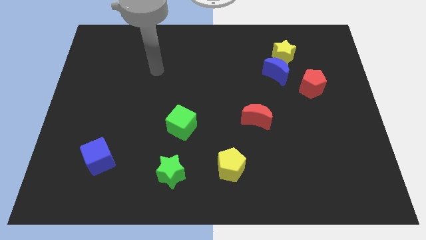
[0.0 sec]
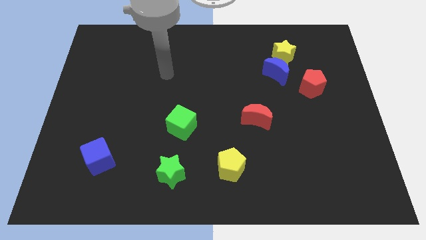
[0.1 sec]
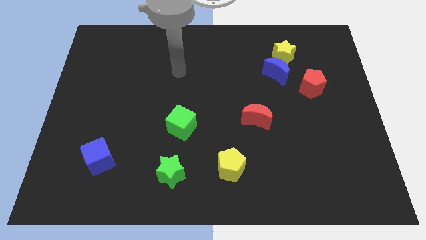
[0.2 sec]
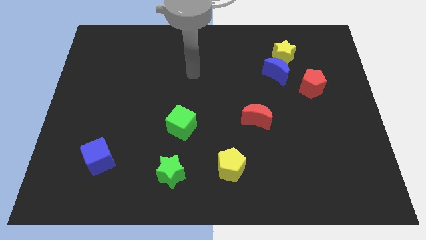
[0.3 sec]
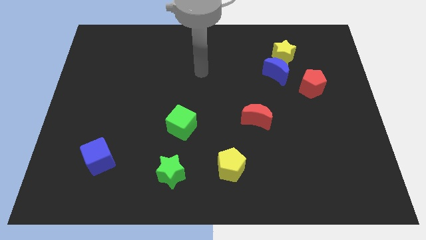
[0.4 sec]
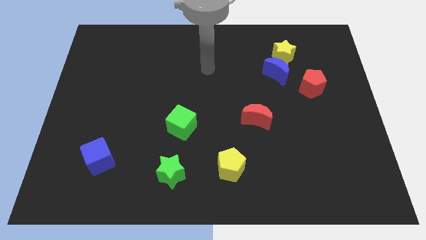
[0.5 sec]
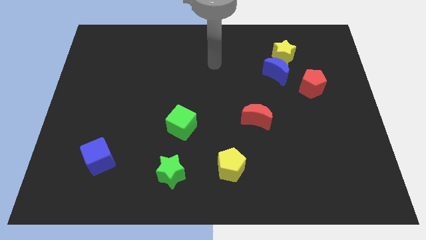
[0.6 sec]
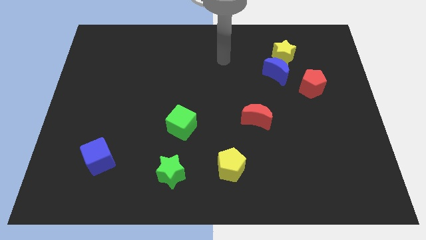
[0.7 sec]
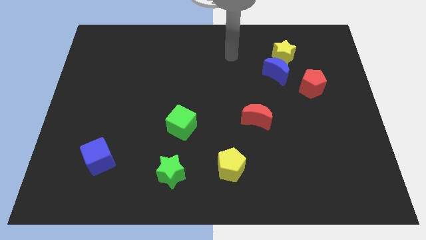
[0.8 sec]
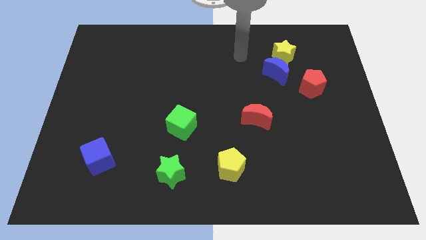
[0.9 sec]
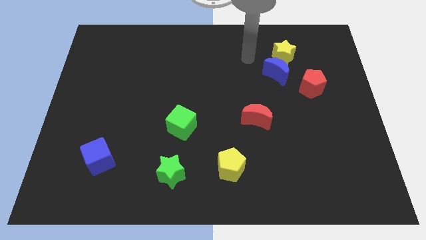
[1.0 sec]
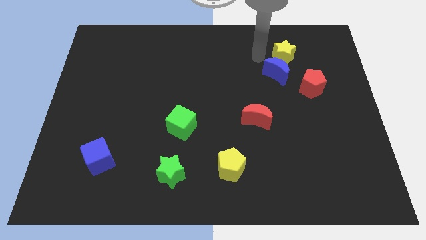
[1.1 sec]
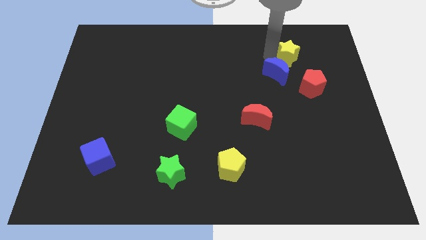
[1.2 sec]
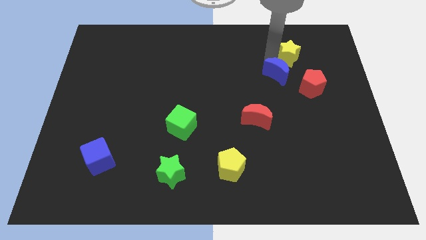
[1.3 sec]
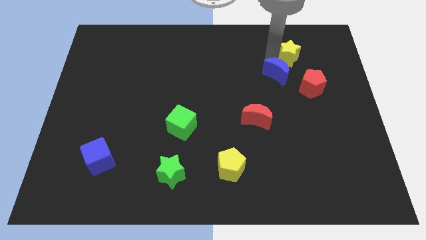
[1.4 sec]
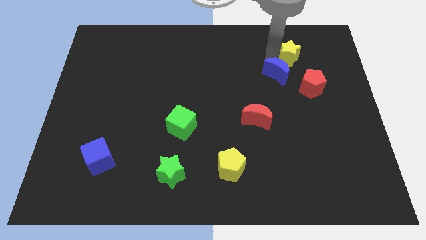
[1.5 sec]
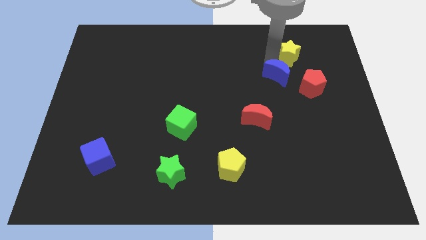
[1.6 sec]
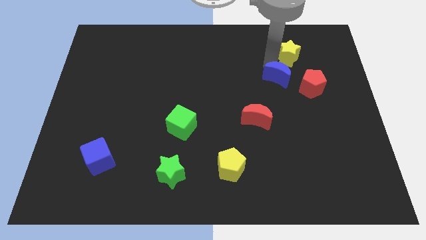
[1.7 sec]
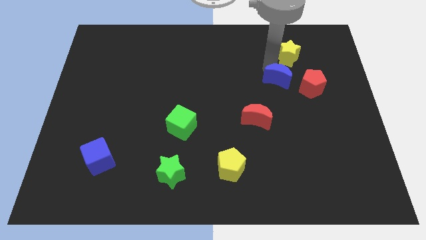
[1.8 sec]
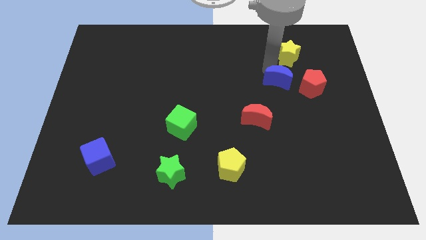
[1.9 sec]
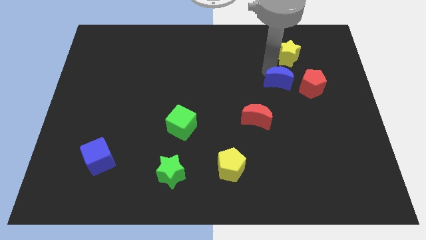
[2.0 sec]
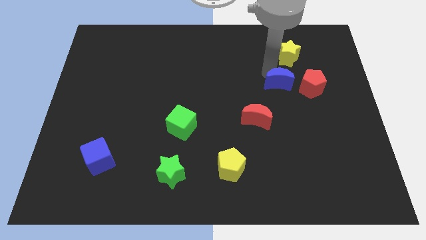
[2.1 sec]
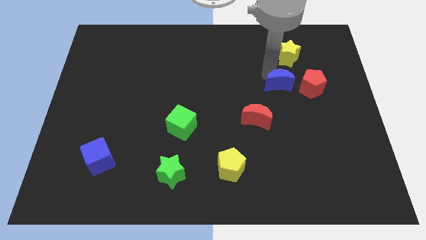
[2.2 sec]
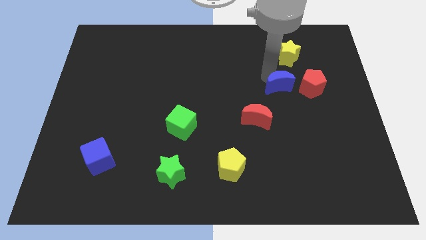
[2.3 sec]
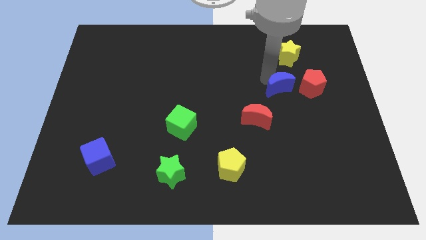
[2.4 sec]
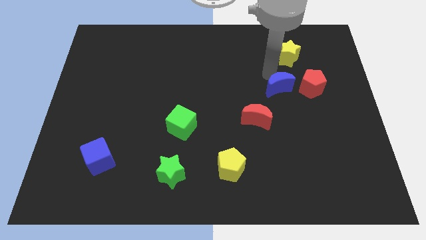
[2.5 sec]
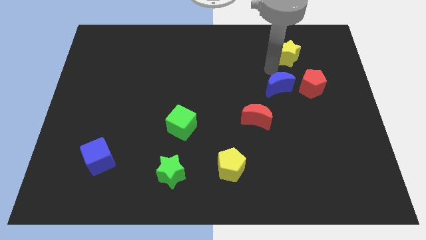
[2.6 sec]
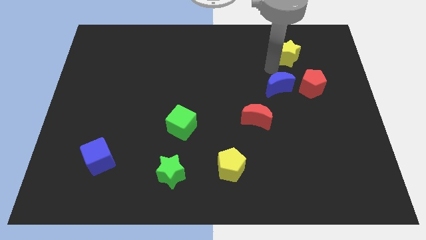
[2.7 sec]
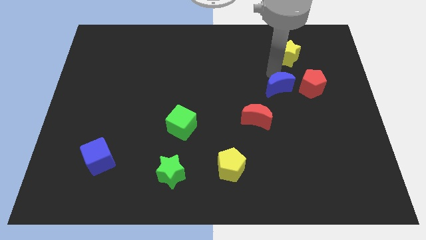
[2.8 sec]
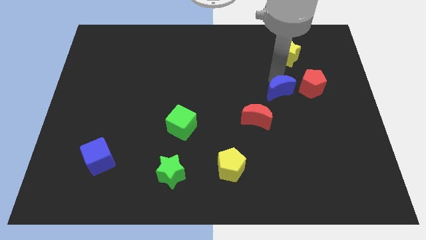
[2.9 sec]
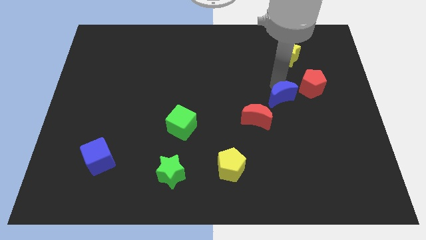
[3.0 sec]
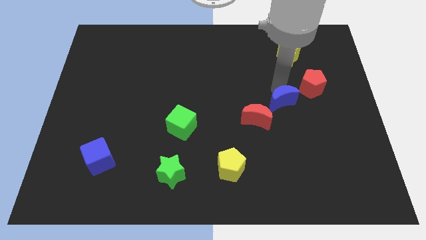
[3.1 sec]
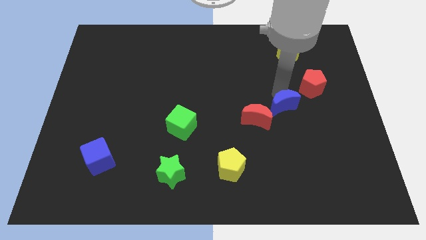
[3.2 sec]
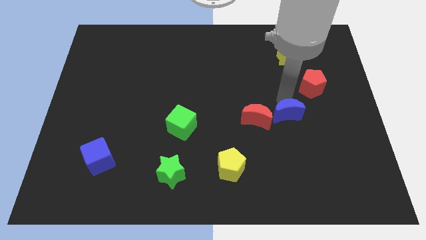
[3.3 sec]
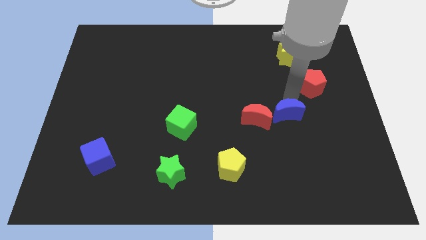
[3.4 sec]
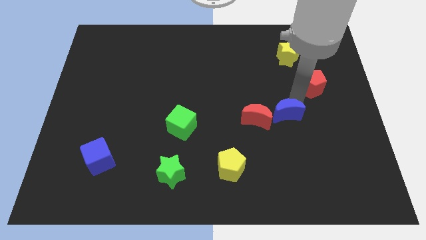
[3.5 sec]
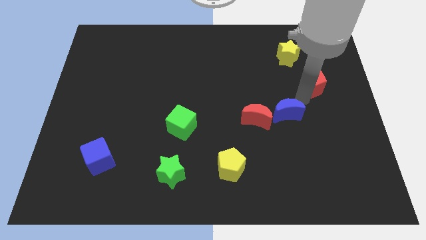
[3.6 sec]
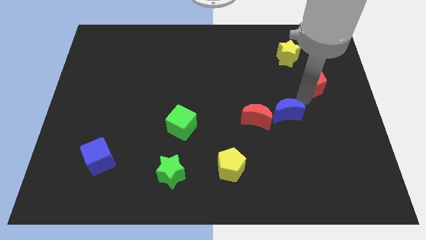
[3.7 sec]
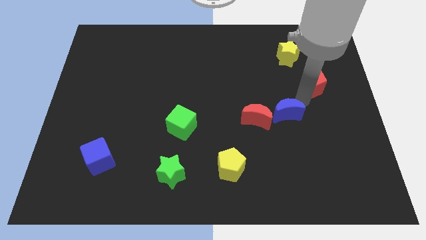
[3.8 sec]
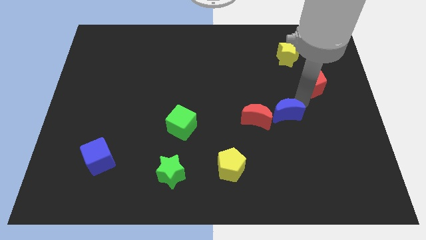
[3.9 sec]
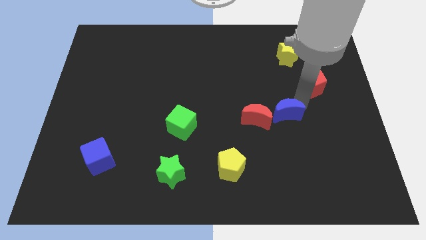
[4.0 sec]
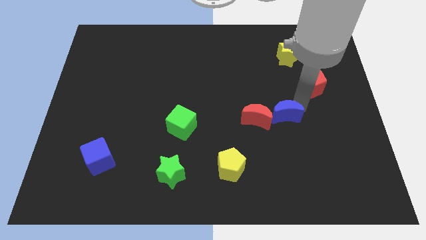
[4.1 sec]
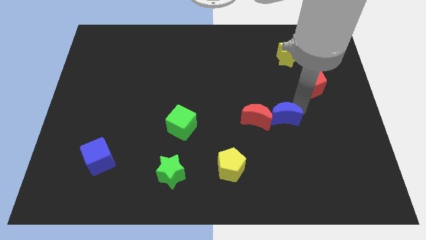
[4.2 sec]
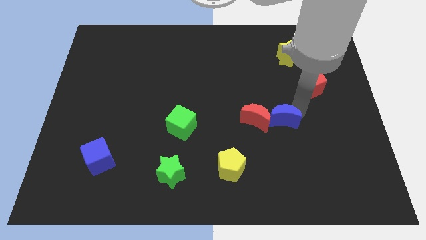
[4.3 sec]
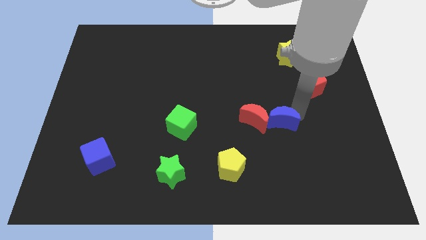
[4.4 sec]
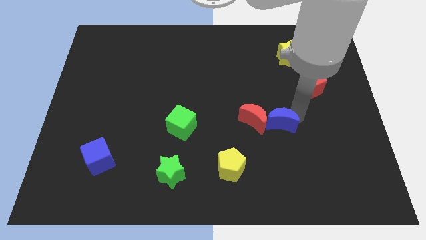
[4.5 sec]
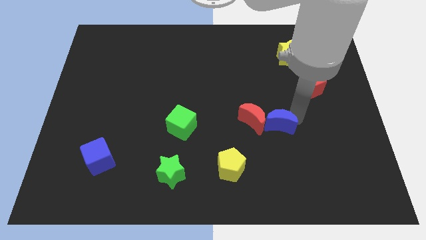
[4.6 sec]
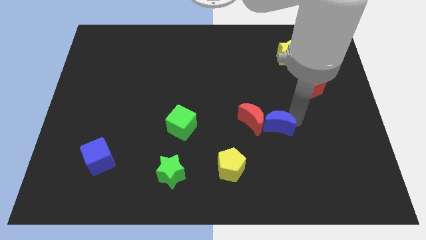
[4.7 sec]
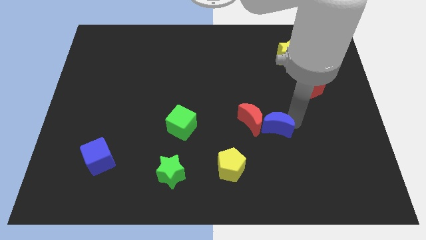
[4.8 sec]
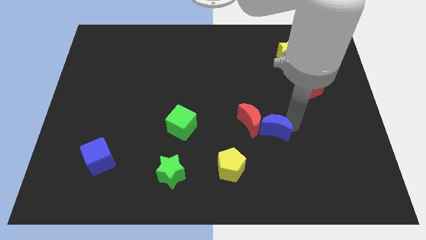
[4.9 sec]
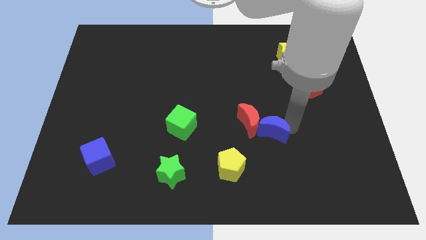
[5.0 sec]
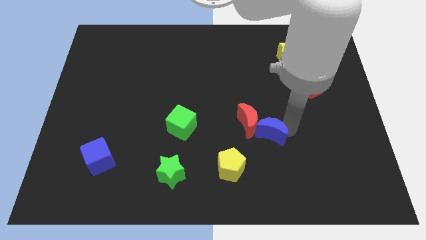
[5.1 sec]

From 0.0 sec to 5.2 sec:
push the blue moon to the top right of the yellow pentagon

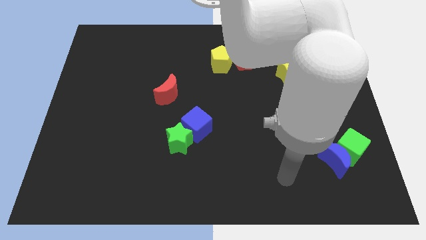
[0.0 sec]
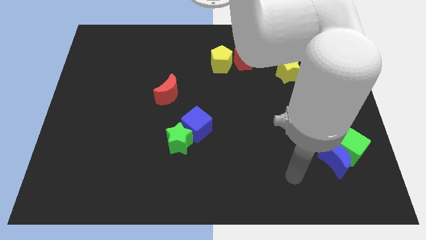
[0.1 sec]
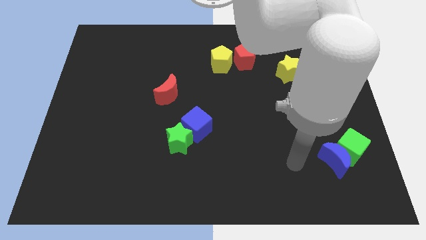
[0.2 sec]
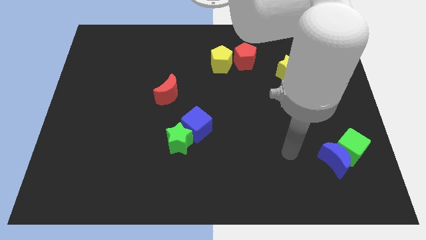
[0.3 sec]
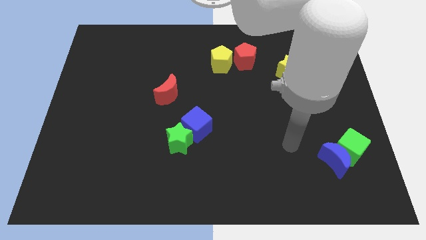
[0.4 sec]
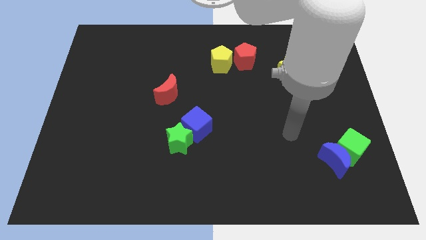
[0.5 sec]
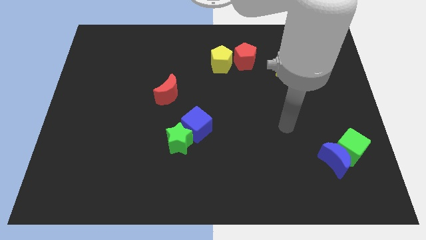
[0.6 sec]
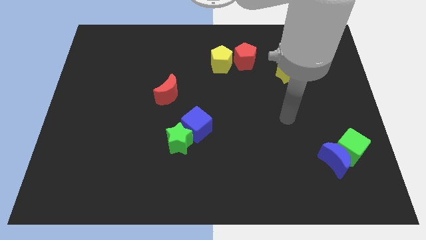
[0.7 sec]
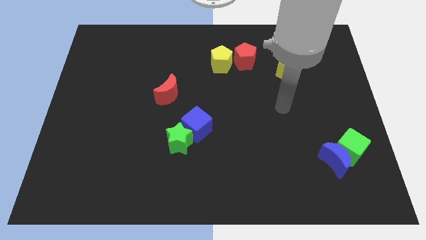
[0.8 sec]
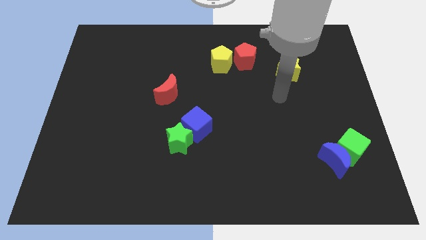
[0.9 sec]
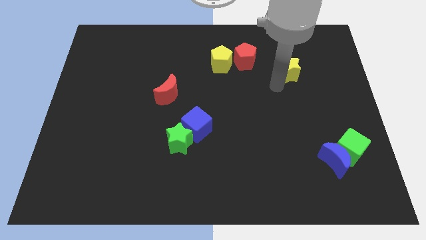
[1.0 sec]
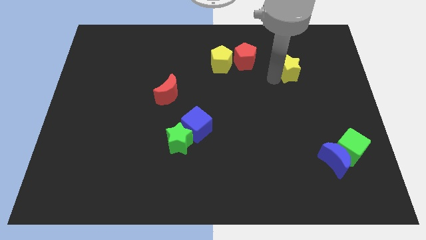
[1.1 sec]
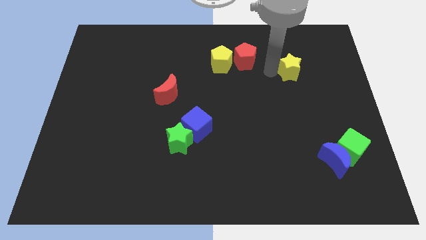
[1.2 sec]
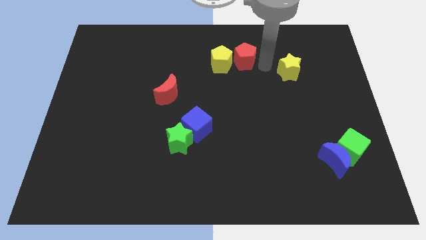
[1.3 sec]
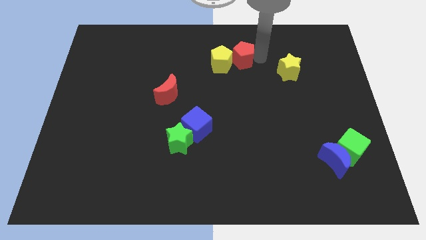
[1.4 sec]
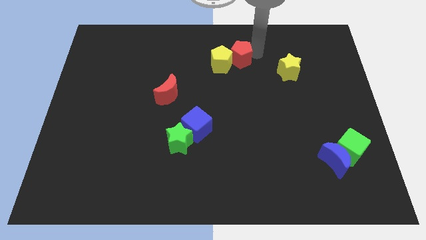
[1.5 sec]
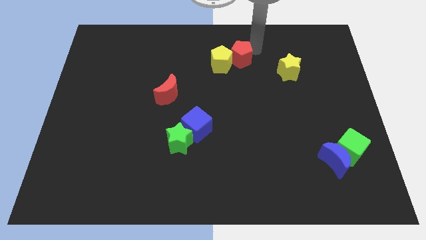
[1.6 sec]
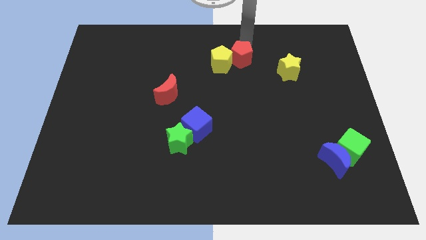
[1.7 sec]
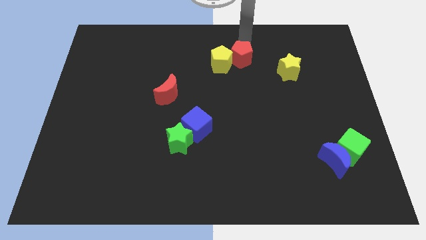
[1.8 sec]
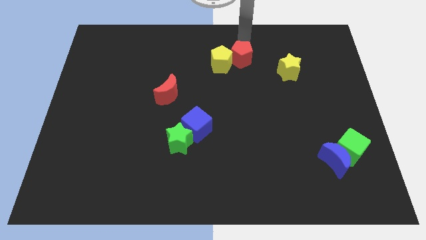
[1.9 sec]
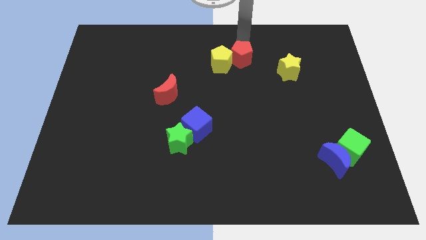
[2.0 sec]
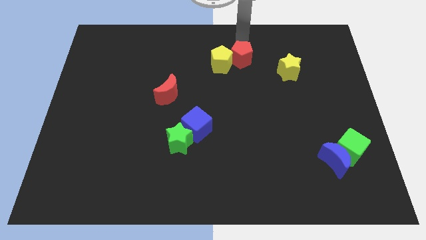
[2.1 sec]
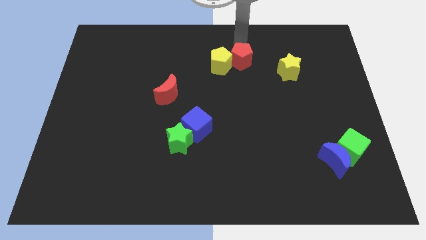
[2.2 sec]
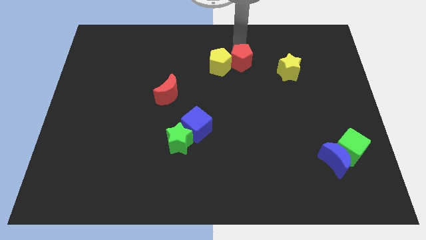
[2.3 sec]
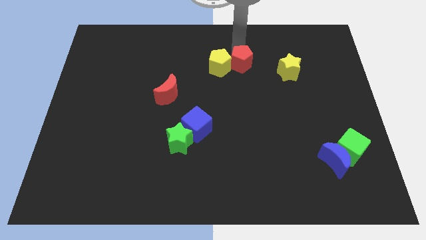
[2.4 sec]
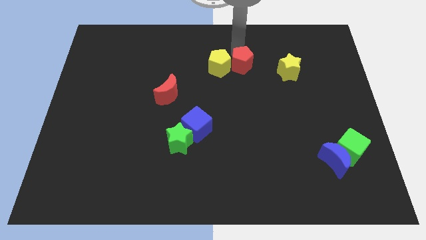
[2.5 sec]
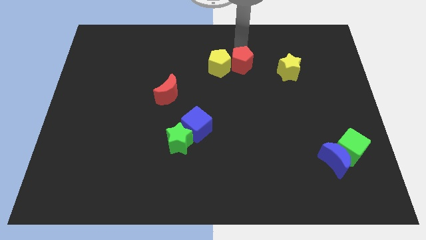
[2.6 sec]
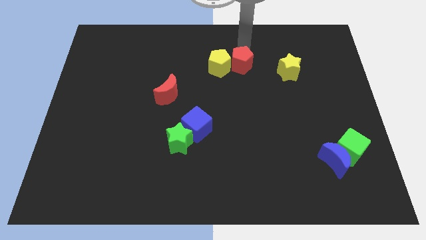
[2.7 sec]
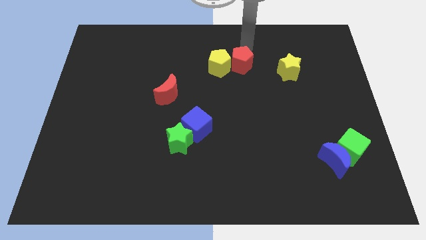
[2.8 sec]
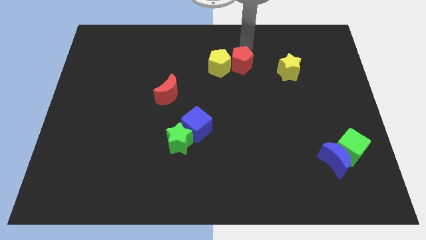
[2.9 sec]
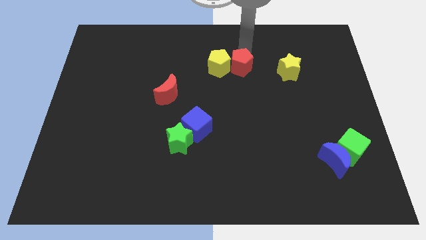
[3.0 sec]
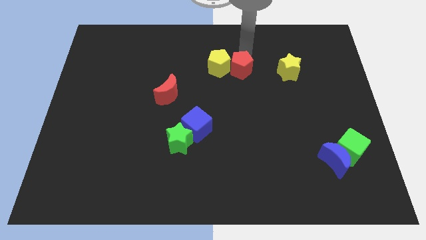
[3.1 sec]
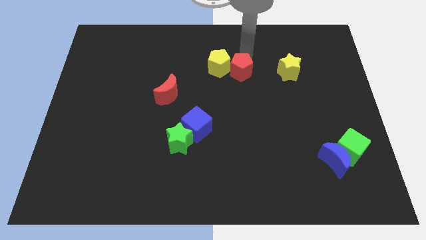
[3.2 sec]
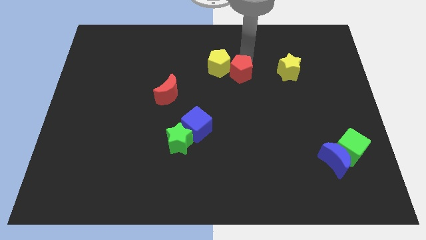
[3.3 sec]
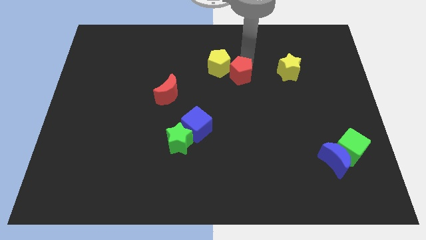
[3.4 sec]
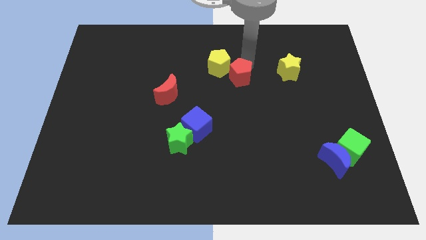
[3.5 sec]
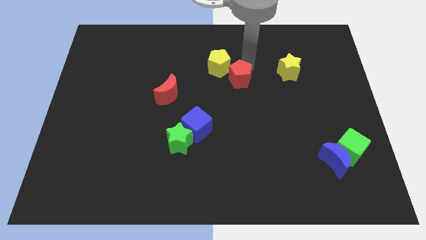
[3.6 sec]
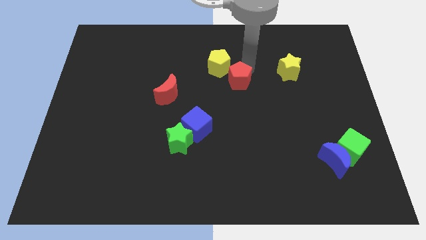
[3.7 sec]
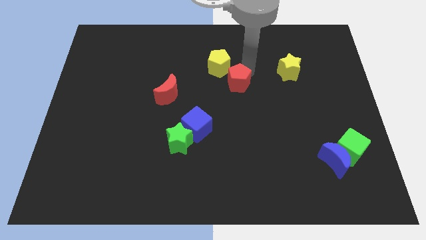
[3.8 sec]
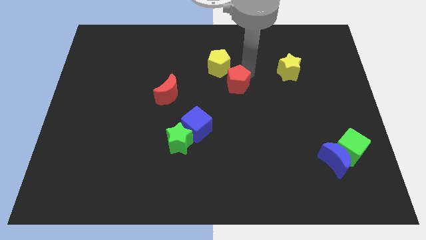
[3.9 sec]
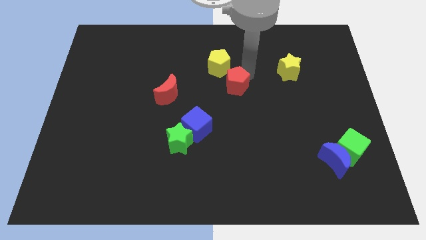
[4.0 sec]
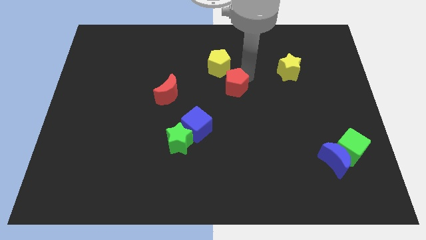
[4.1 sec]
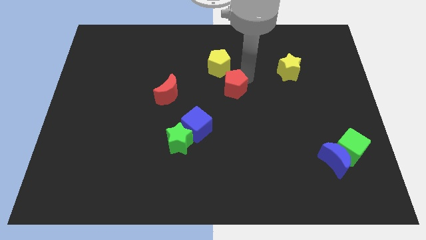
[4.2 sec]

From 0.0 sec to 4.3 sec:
put the red pentagon just right of the red moon
